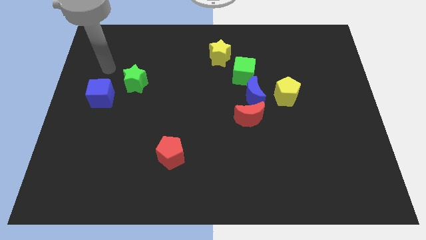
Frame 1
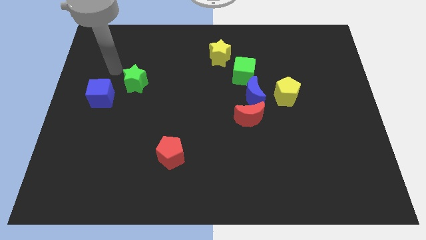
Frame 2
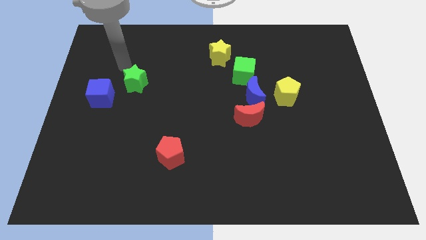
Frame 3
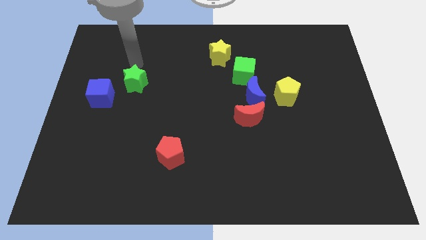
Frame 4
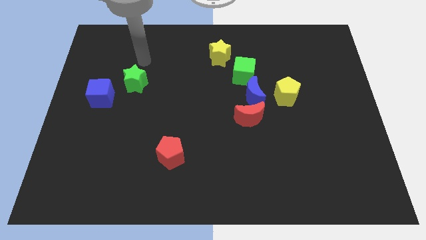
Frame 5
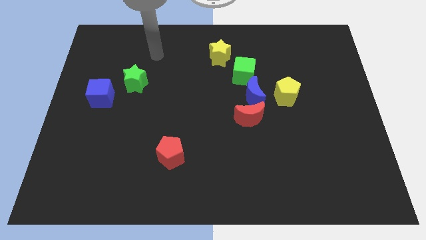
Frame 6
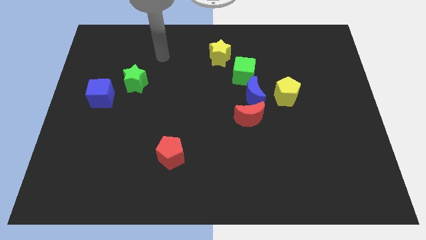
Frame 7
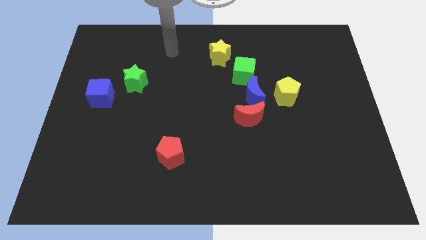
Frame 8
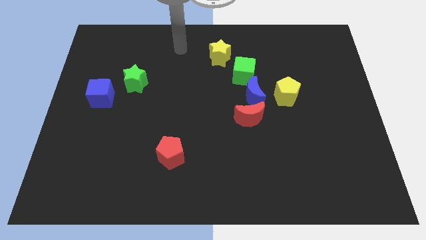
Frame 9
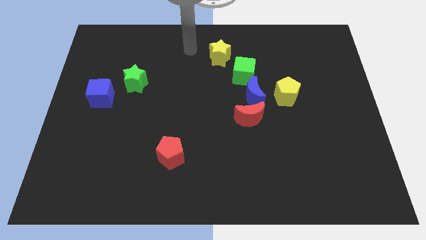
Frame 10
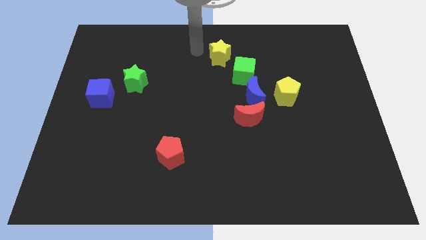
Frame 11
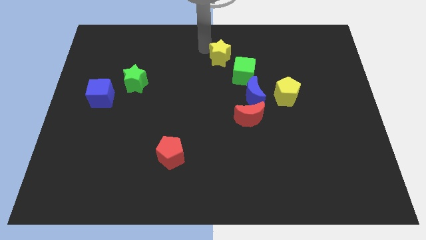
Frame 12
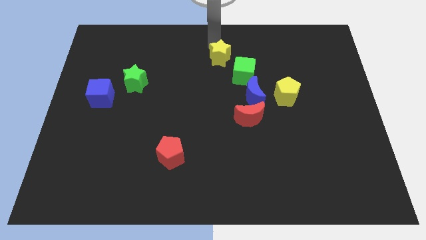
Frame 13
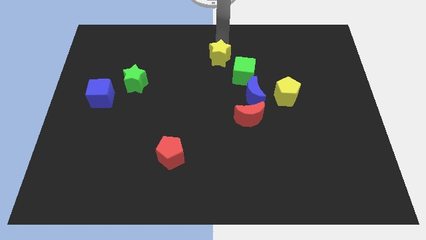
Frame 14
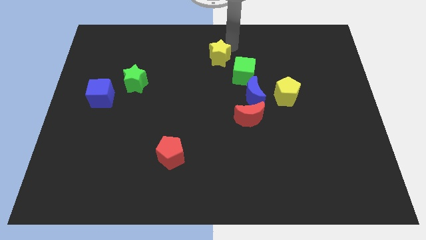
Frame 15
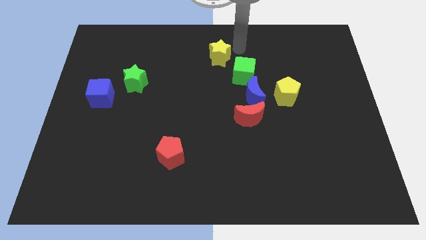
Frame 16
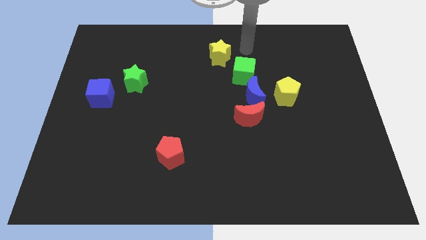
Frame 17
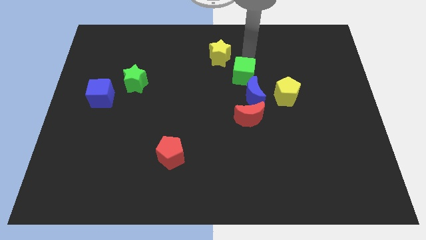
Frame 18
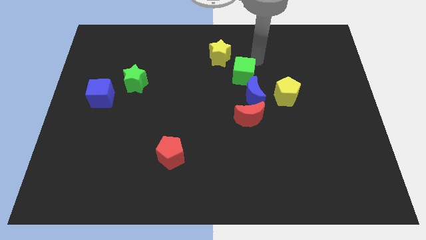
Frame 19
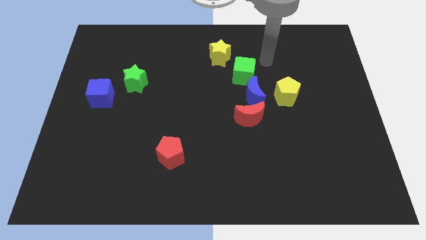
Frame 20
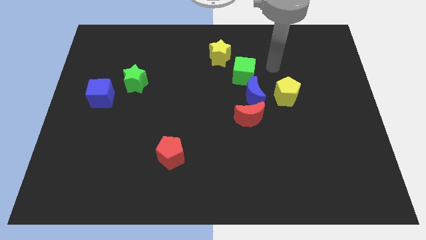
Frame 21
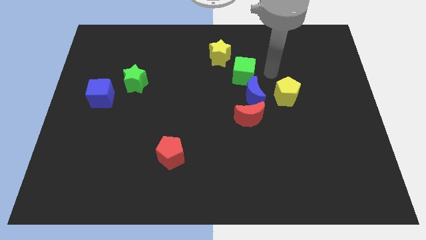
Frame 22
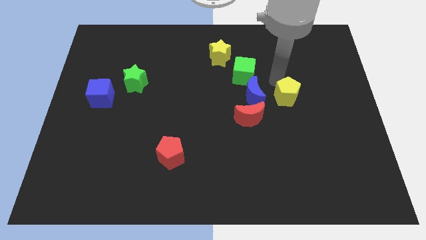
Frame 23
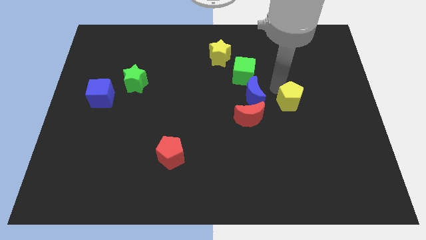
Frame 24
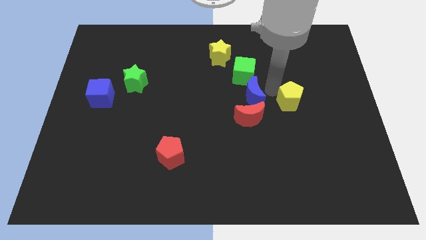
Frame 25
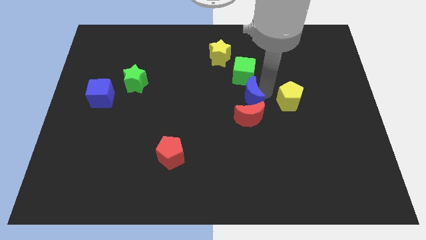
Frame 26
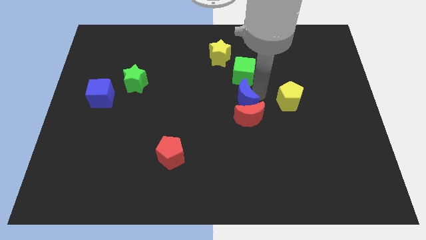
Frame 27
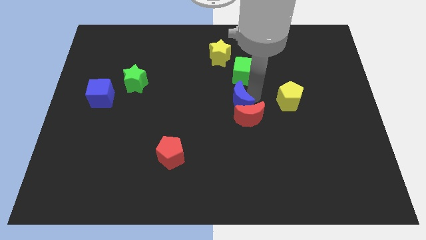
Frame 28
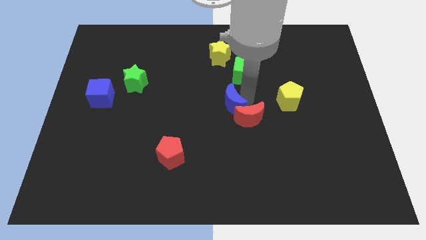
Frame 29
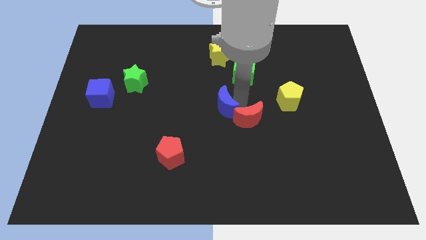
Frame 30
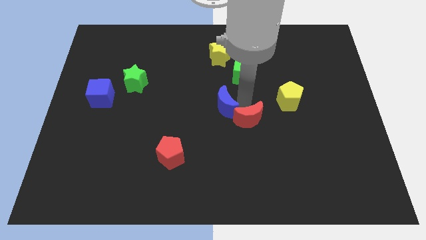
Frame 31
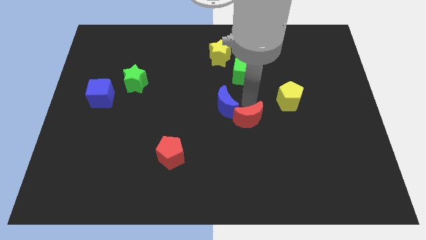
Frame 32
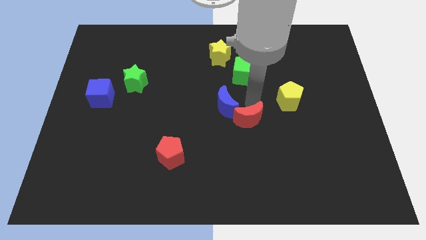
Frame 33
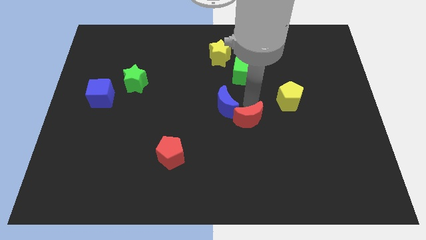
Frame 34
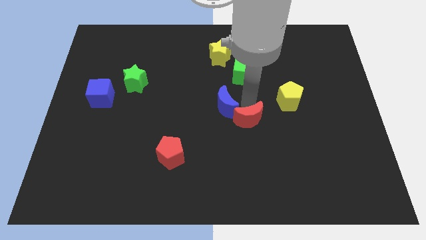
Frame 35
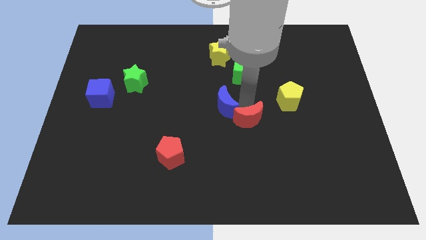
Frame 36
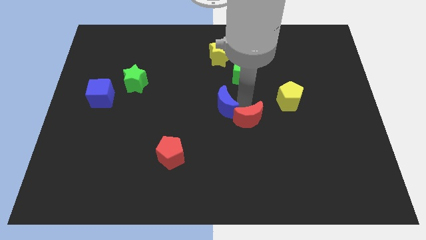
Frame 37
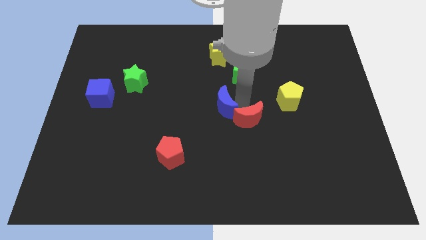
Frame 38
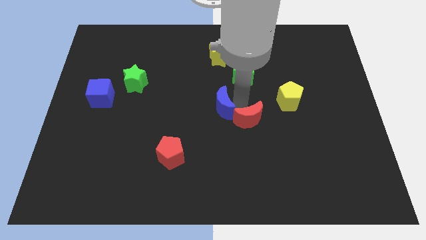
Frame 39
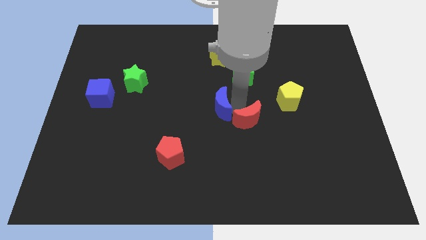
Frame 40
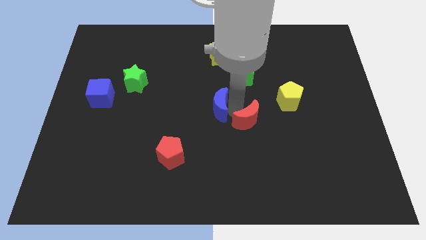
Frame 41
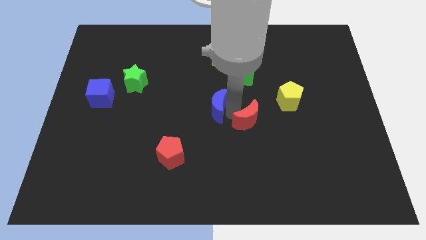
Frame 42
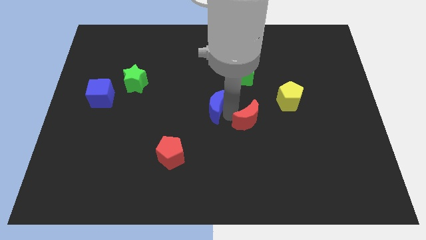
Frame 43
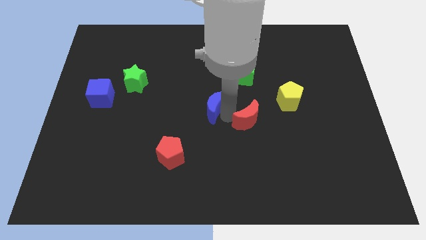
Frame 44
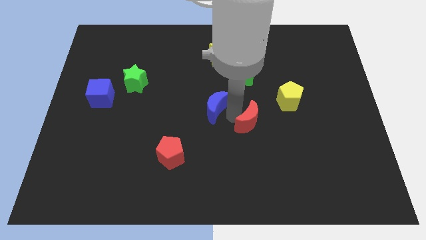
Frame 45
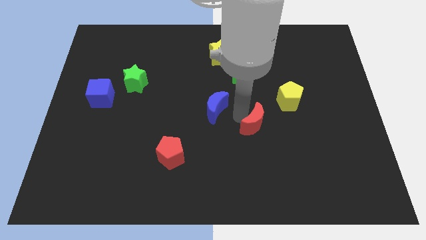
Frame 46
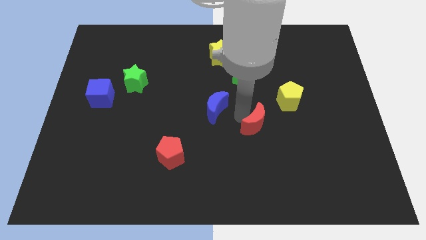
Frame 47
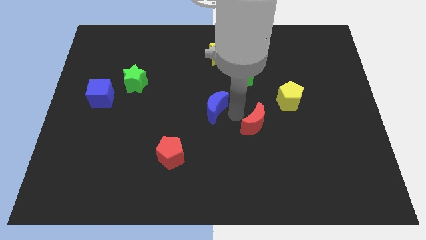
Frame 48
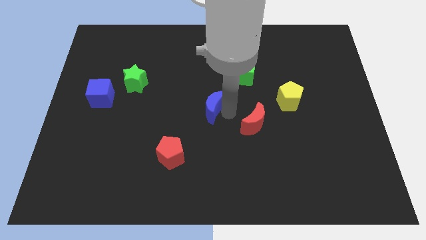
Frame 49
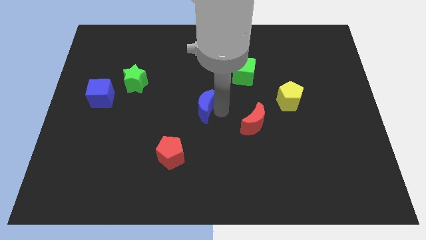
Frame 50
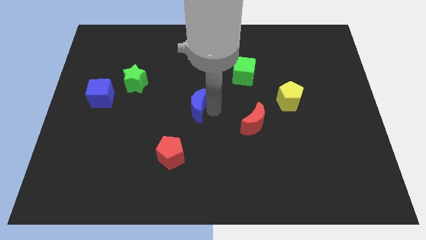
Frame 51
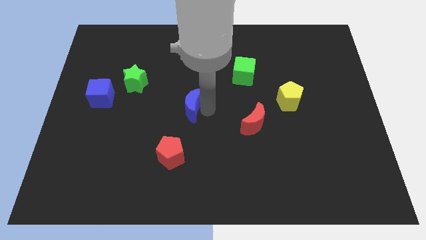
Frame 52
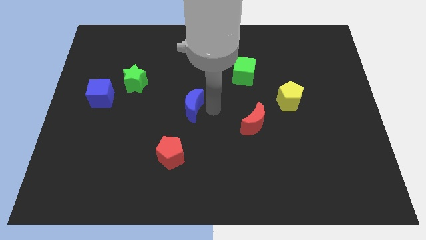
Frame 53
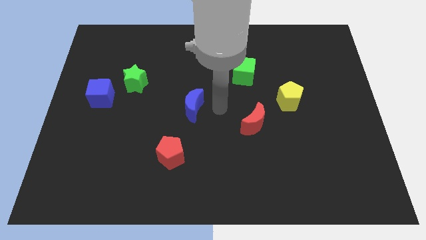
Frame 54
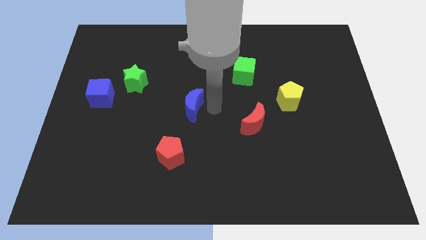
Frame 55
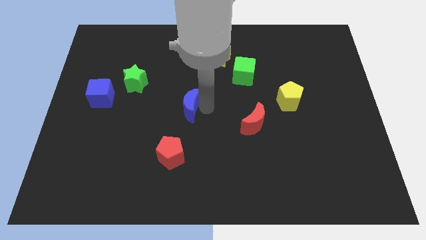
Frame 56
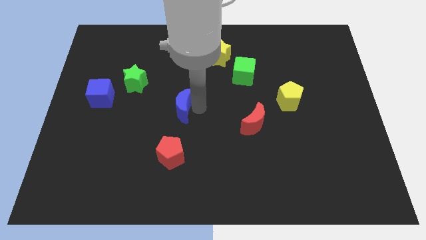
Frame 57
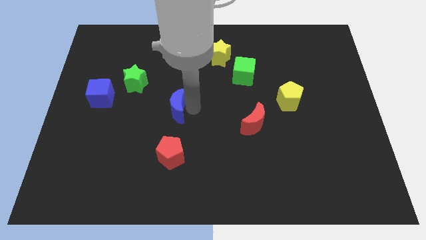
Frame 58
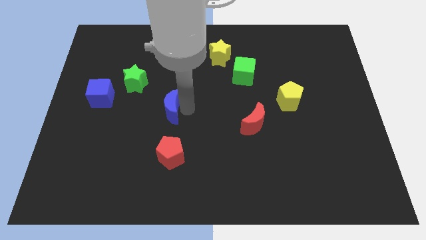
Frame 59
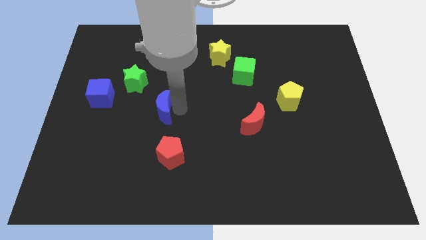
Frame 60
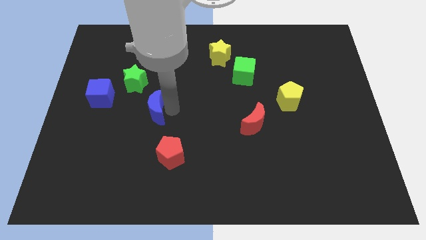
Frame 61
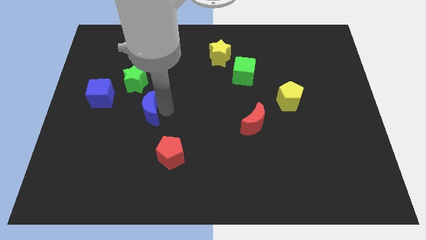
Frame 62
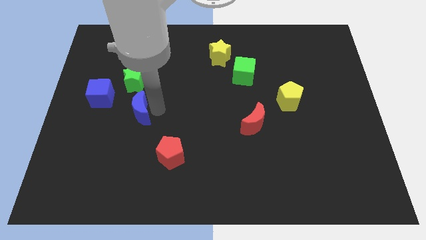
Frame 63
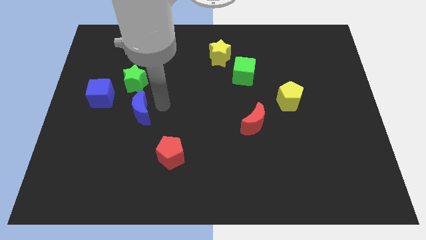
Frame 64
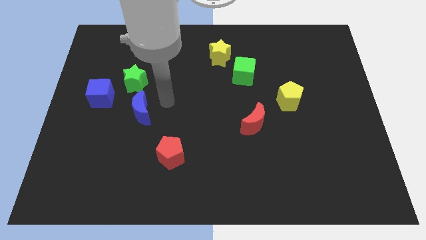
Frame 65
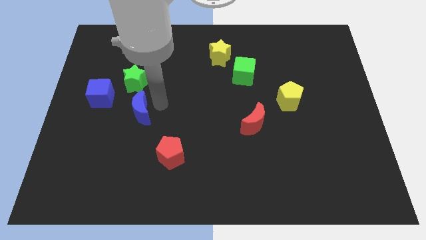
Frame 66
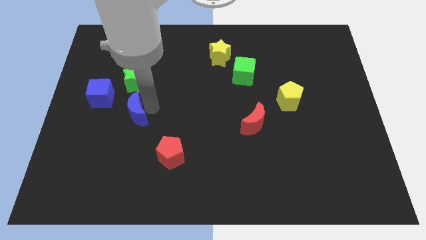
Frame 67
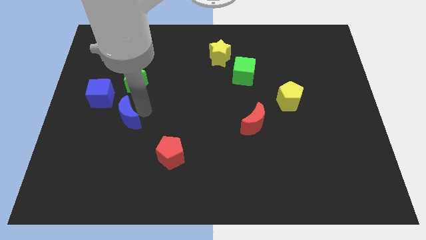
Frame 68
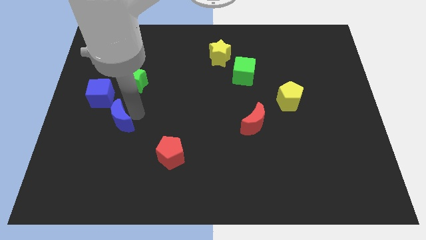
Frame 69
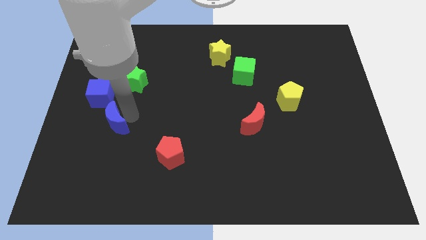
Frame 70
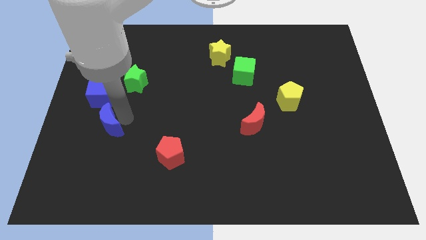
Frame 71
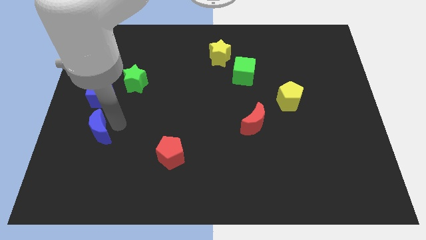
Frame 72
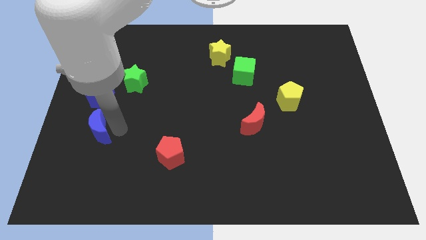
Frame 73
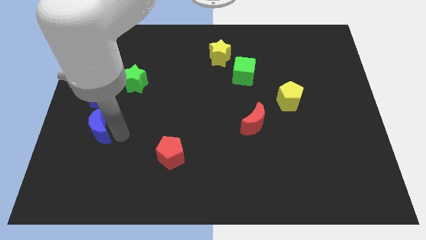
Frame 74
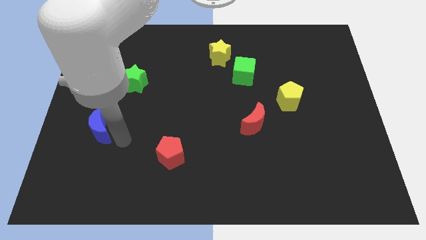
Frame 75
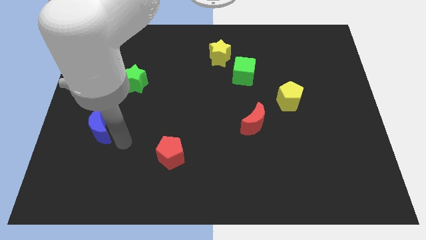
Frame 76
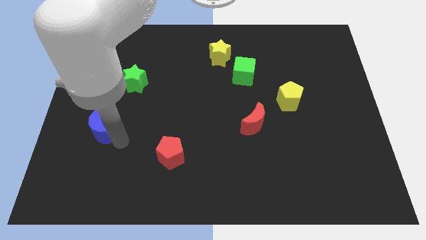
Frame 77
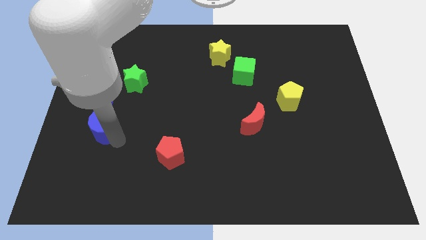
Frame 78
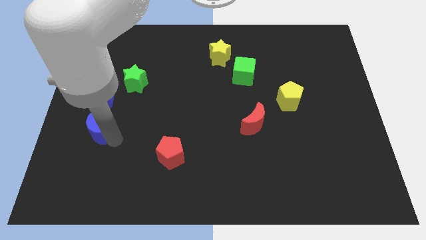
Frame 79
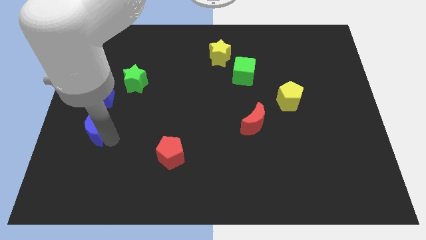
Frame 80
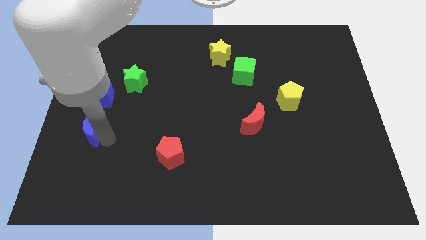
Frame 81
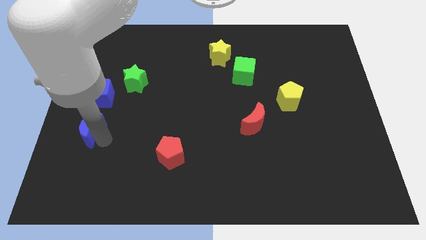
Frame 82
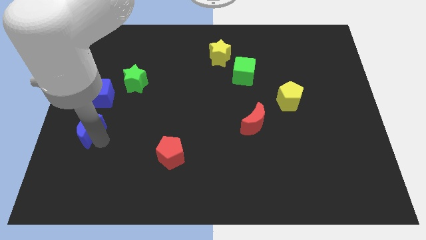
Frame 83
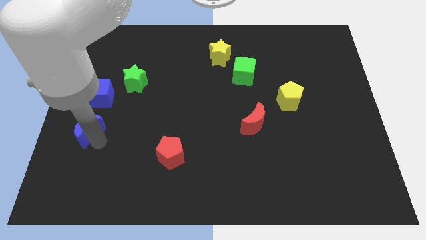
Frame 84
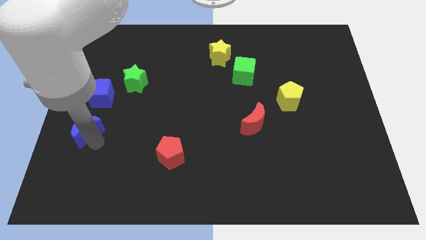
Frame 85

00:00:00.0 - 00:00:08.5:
slide the blue moon to the left side of the board
